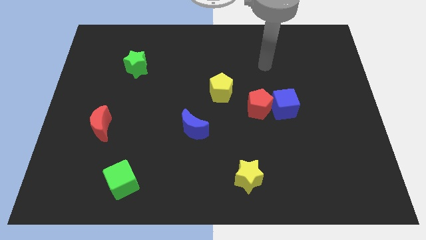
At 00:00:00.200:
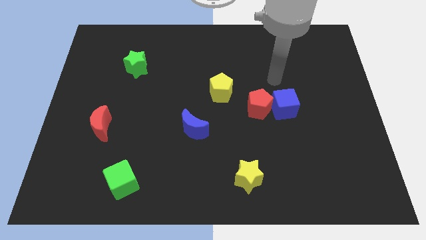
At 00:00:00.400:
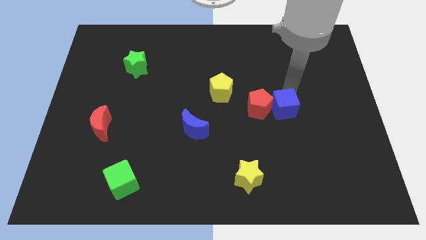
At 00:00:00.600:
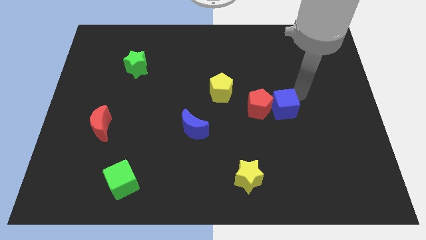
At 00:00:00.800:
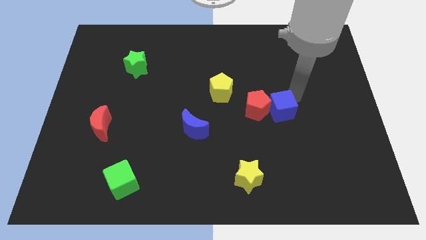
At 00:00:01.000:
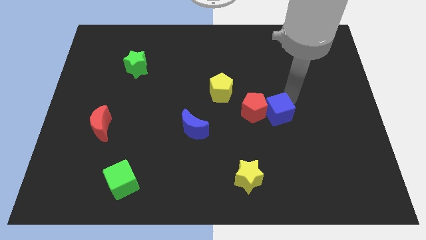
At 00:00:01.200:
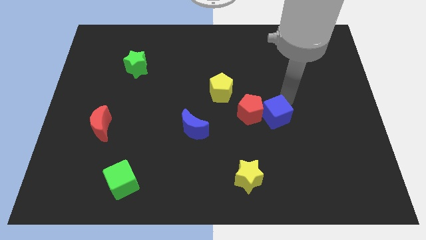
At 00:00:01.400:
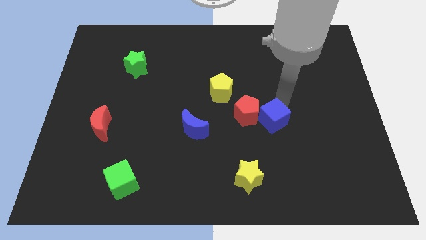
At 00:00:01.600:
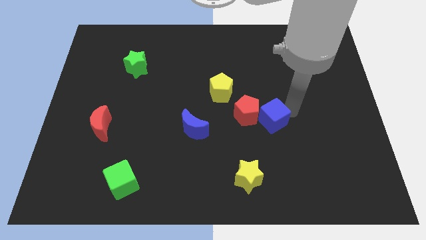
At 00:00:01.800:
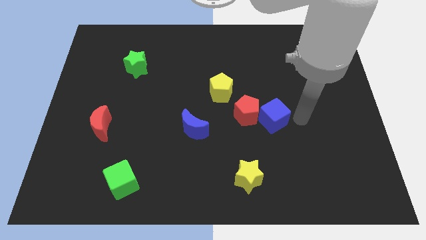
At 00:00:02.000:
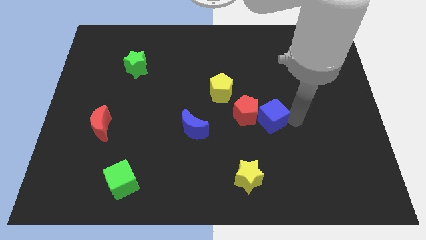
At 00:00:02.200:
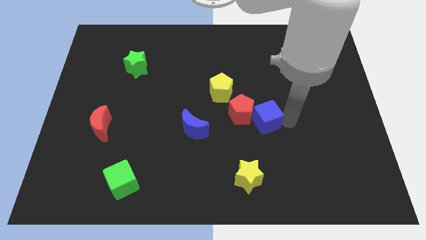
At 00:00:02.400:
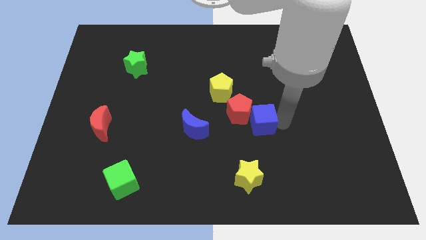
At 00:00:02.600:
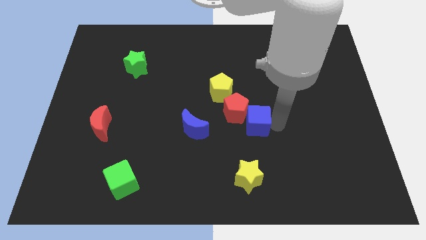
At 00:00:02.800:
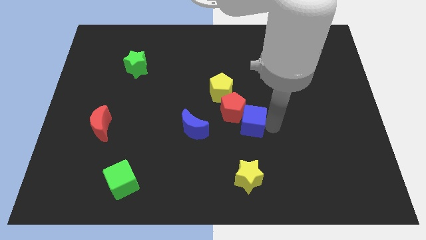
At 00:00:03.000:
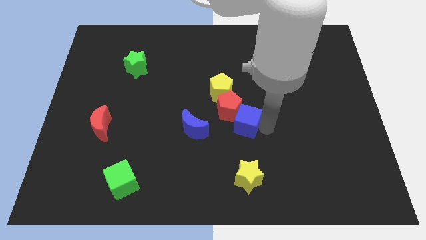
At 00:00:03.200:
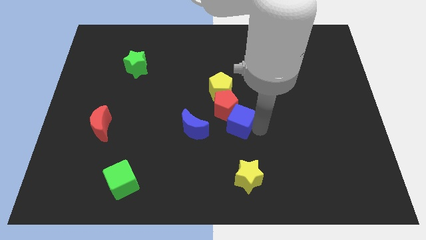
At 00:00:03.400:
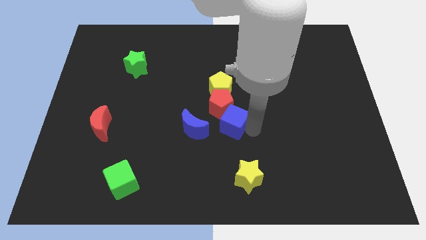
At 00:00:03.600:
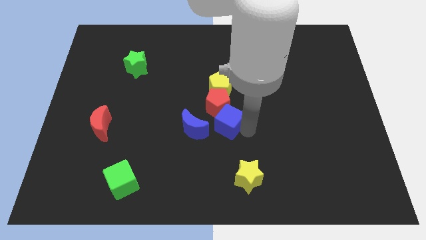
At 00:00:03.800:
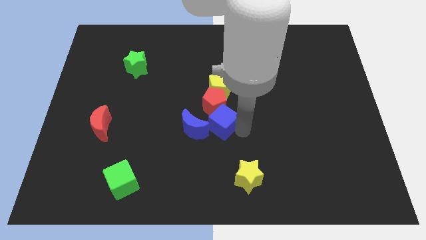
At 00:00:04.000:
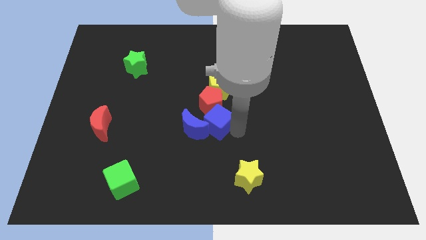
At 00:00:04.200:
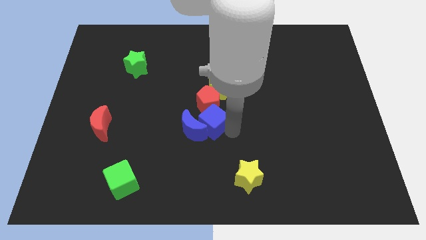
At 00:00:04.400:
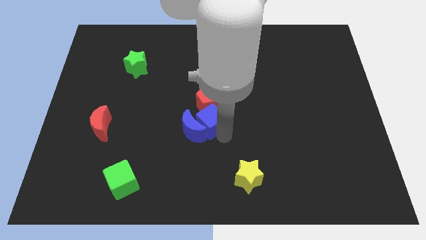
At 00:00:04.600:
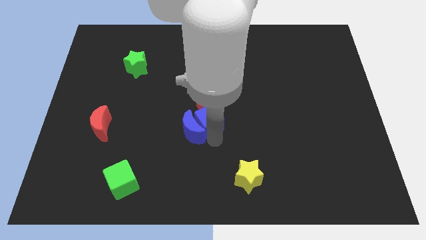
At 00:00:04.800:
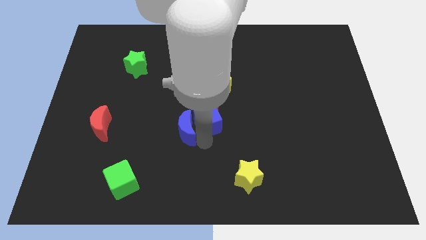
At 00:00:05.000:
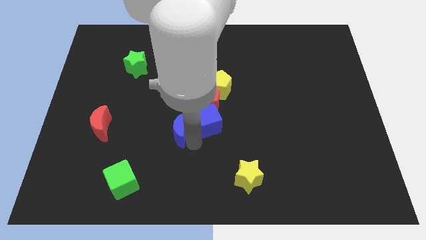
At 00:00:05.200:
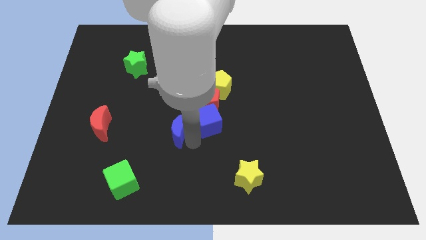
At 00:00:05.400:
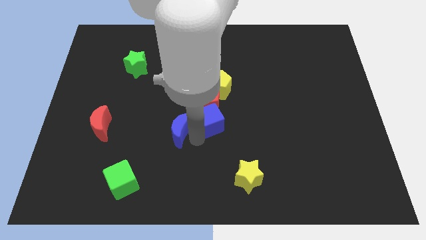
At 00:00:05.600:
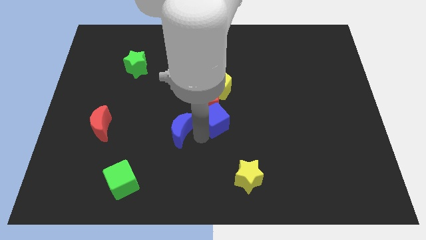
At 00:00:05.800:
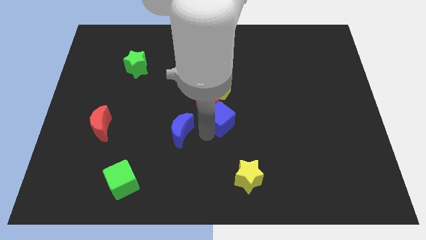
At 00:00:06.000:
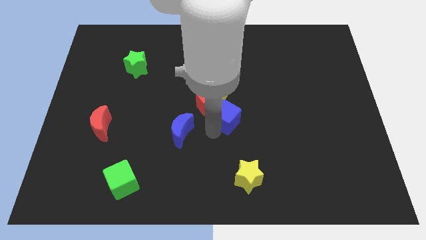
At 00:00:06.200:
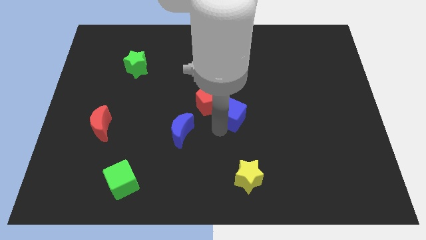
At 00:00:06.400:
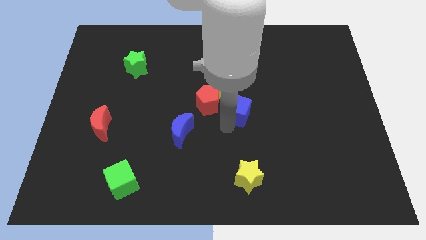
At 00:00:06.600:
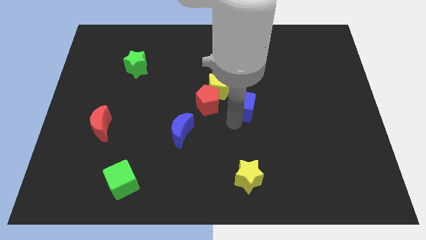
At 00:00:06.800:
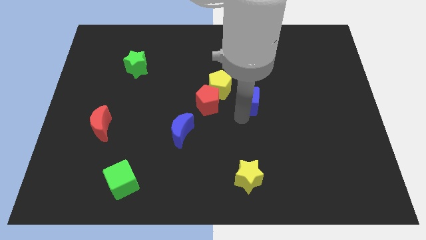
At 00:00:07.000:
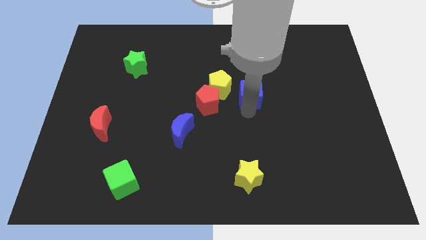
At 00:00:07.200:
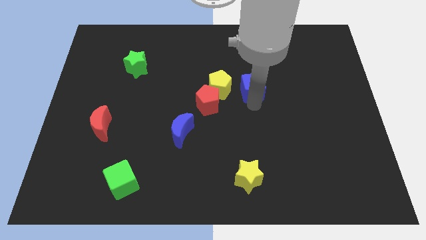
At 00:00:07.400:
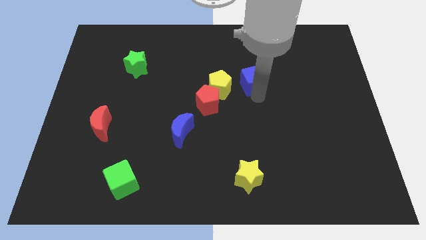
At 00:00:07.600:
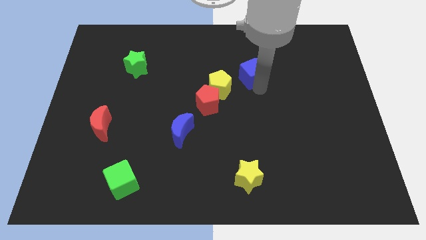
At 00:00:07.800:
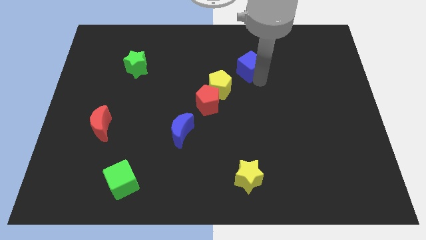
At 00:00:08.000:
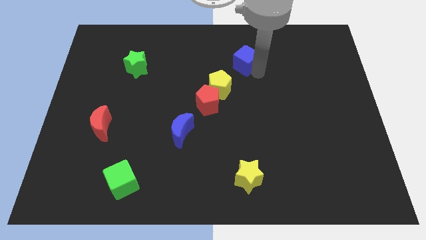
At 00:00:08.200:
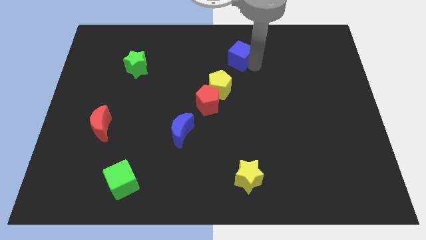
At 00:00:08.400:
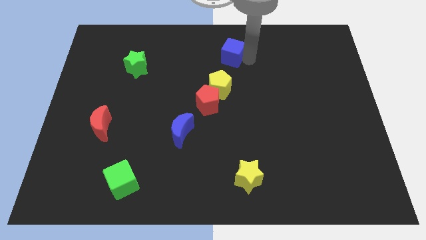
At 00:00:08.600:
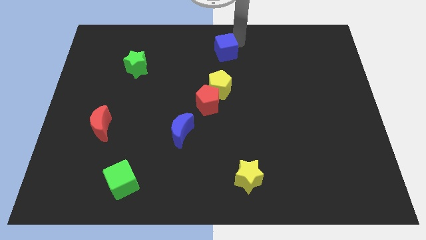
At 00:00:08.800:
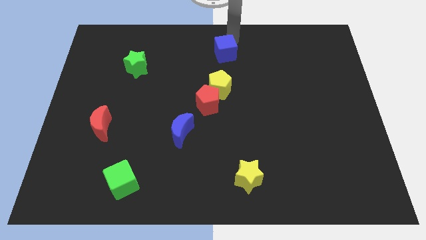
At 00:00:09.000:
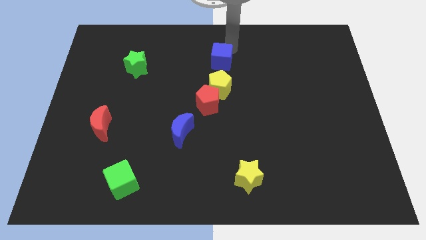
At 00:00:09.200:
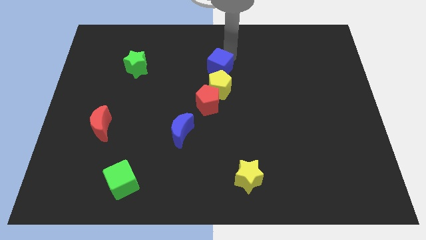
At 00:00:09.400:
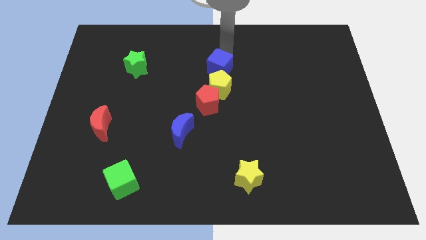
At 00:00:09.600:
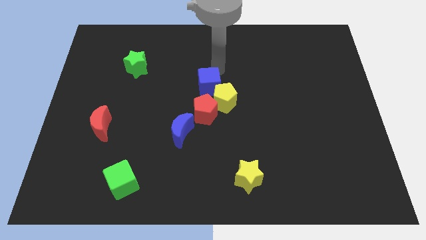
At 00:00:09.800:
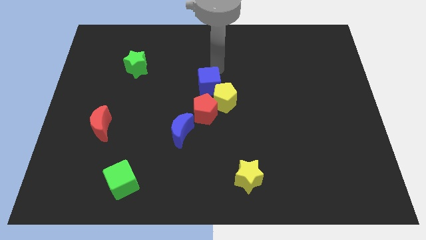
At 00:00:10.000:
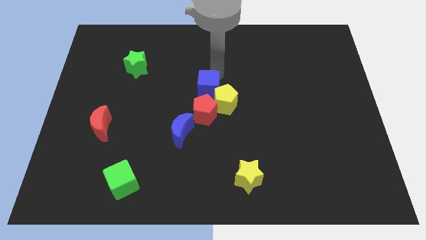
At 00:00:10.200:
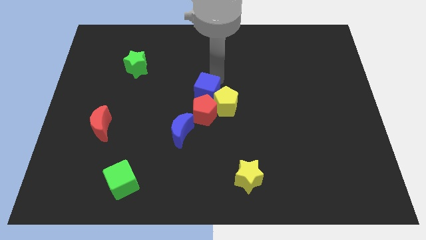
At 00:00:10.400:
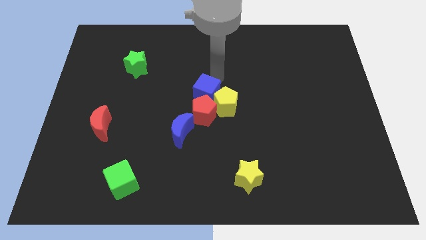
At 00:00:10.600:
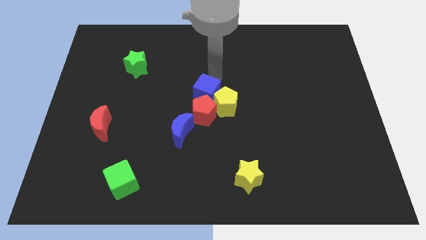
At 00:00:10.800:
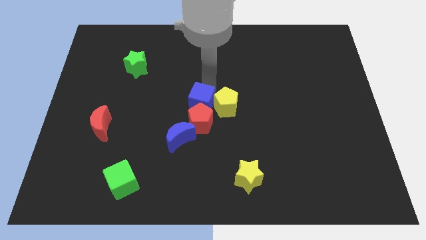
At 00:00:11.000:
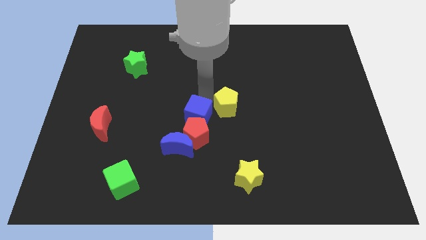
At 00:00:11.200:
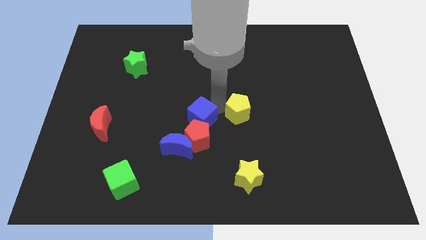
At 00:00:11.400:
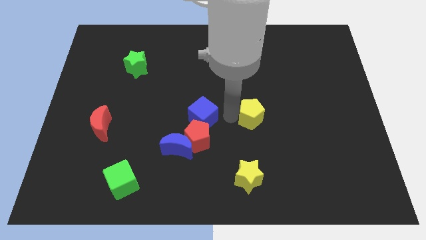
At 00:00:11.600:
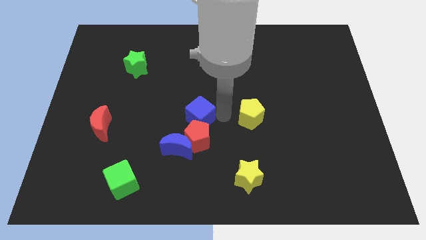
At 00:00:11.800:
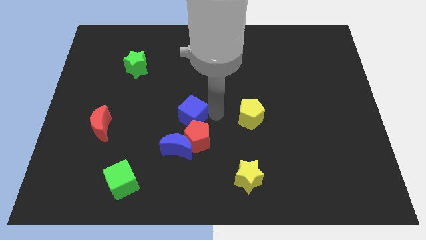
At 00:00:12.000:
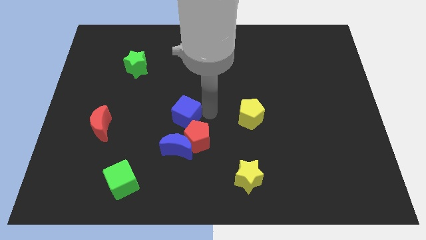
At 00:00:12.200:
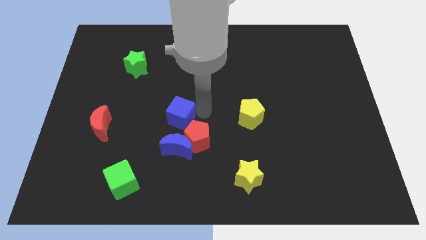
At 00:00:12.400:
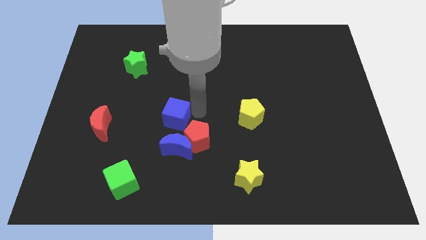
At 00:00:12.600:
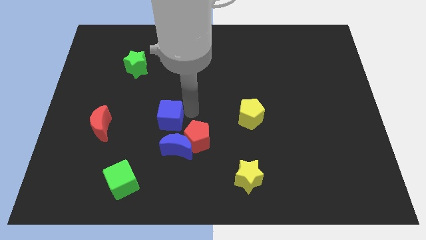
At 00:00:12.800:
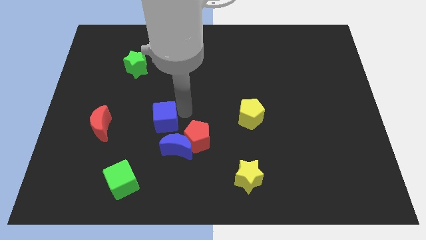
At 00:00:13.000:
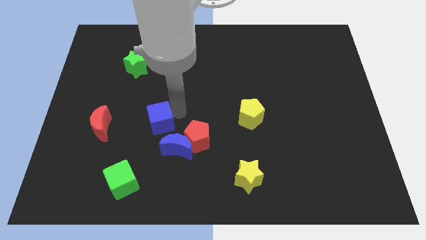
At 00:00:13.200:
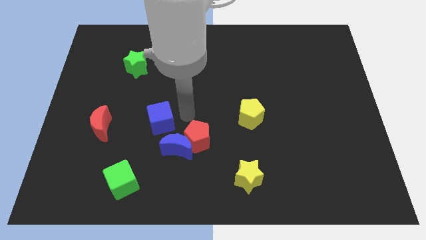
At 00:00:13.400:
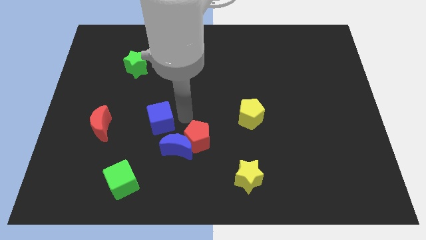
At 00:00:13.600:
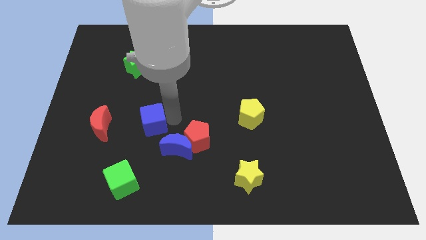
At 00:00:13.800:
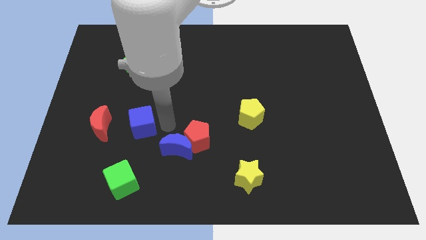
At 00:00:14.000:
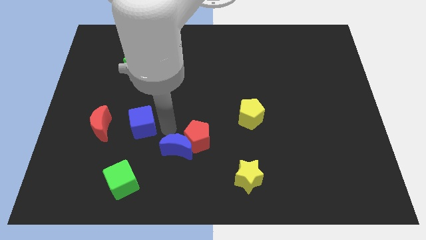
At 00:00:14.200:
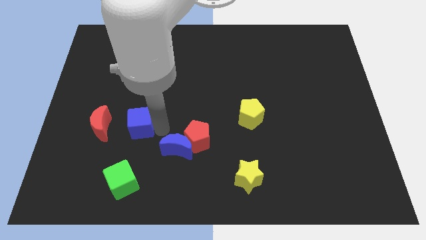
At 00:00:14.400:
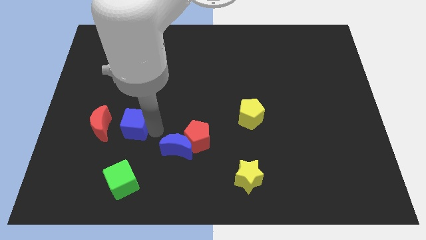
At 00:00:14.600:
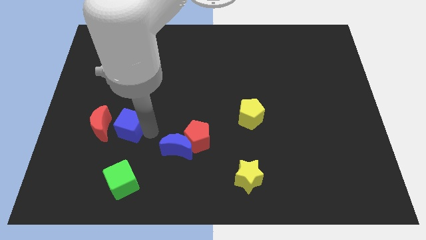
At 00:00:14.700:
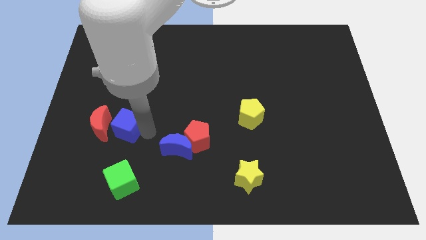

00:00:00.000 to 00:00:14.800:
push the blue cube next to the red moon
